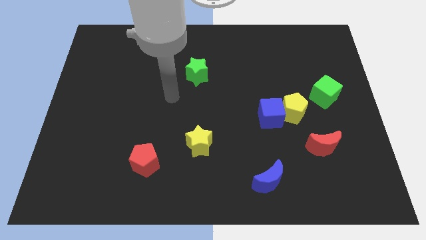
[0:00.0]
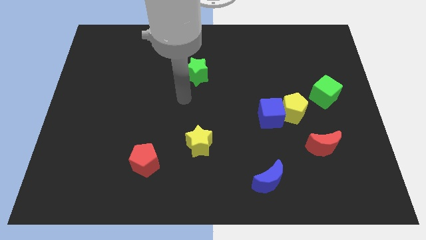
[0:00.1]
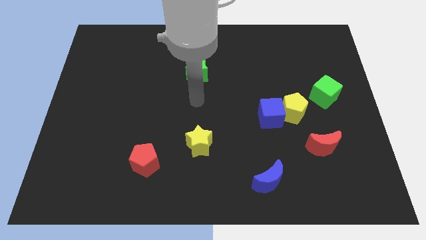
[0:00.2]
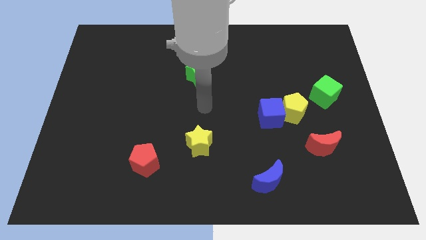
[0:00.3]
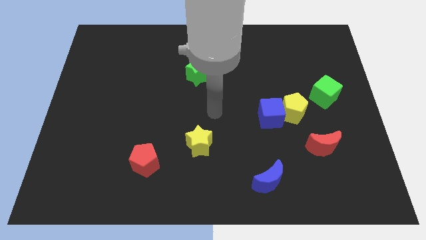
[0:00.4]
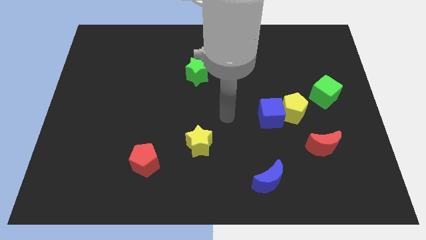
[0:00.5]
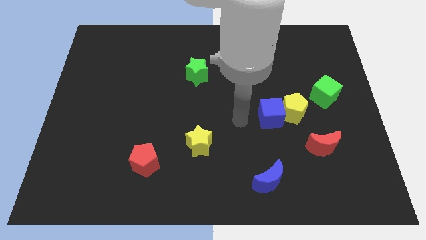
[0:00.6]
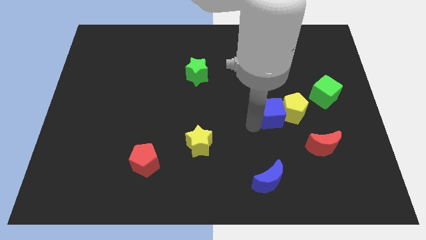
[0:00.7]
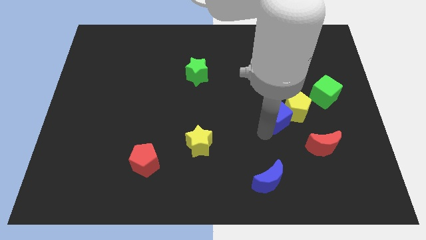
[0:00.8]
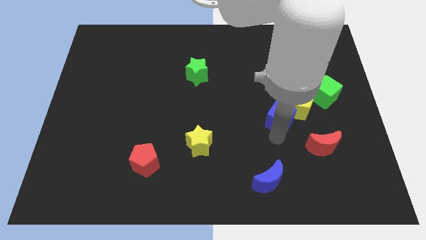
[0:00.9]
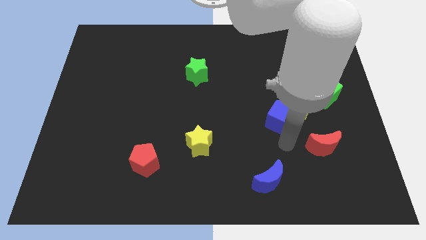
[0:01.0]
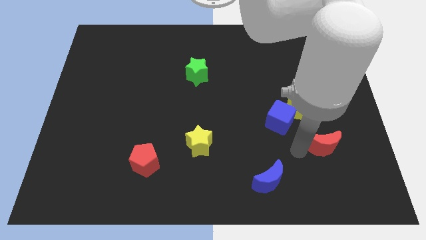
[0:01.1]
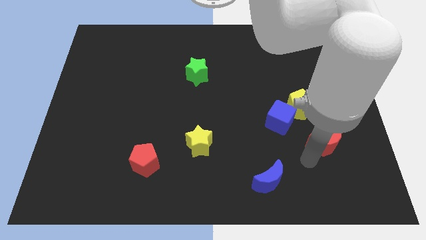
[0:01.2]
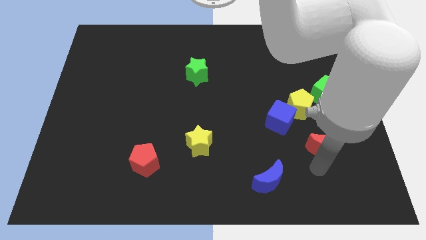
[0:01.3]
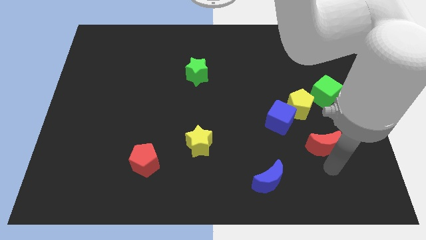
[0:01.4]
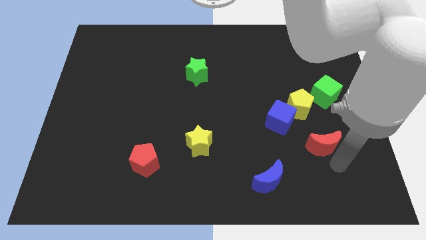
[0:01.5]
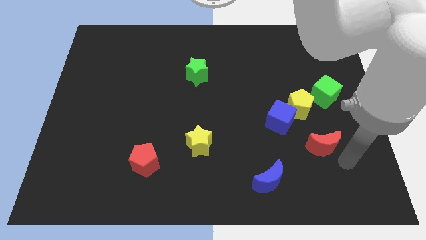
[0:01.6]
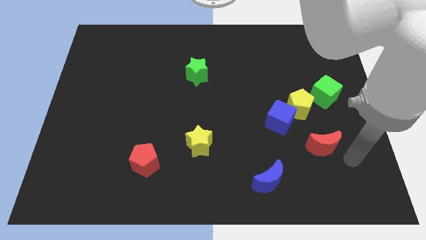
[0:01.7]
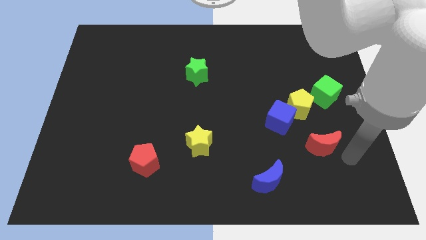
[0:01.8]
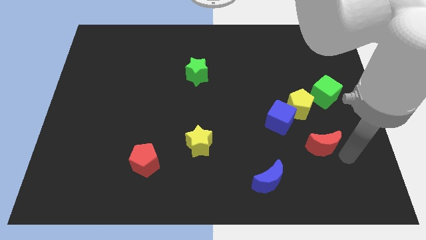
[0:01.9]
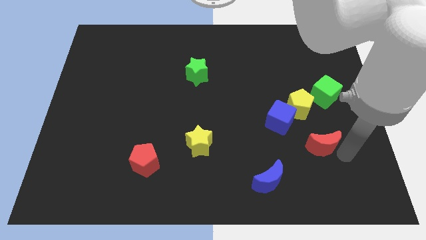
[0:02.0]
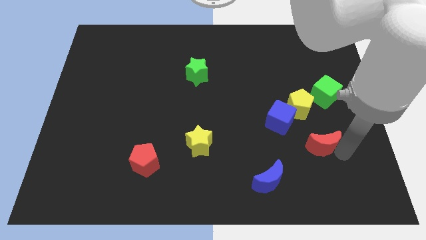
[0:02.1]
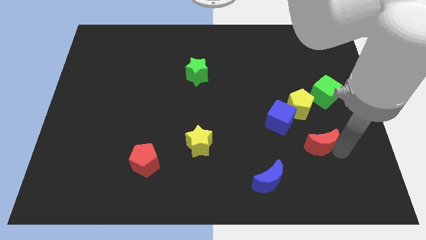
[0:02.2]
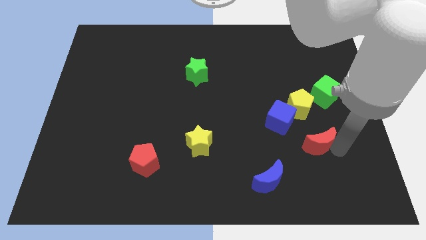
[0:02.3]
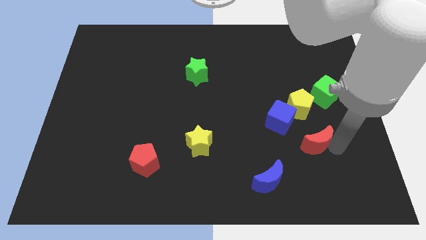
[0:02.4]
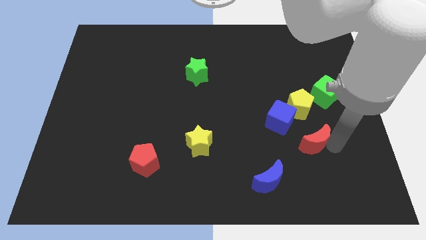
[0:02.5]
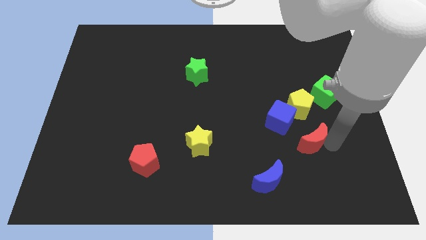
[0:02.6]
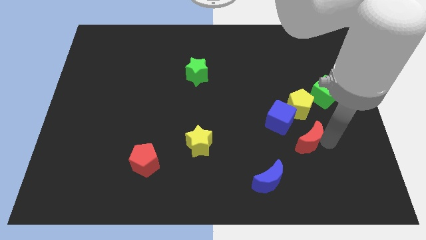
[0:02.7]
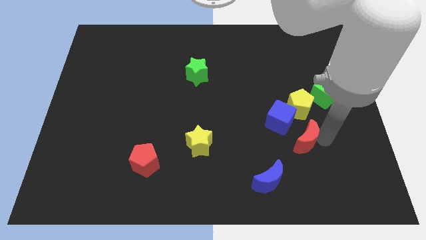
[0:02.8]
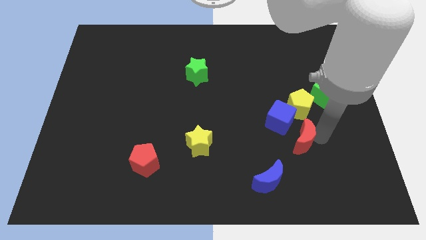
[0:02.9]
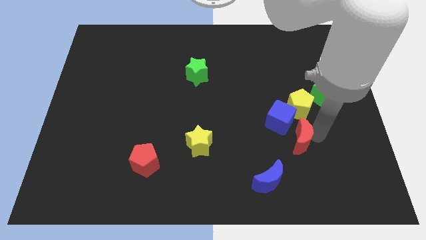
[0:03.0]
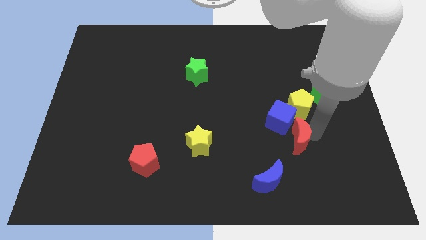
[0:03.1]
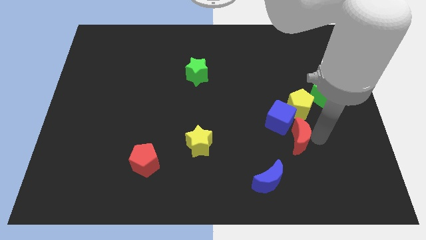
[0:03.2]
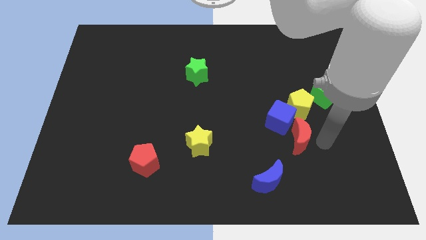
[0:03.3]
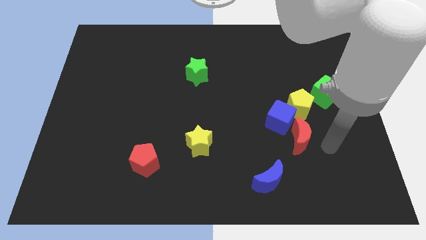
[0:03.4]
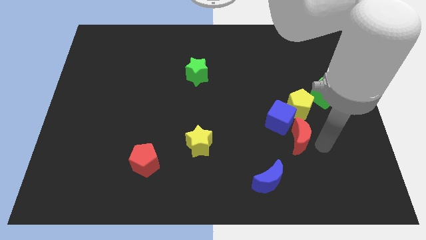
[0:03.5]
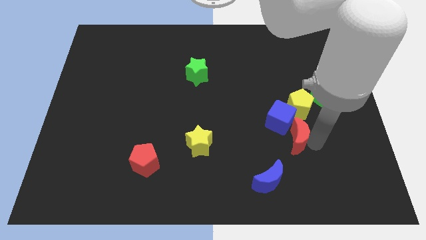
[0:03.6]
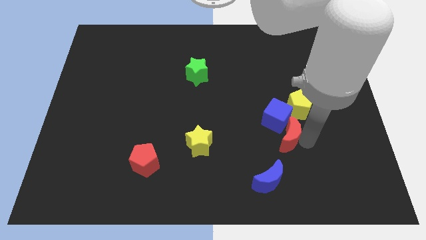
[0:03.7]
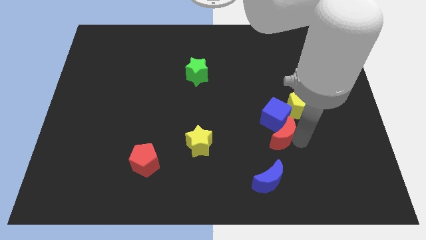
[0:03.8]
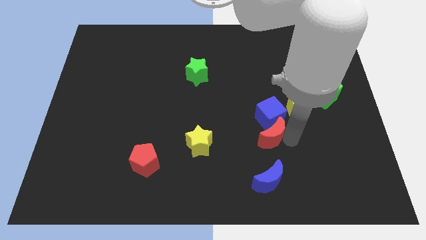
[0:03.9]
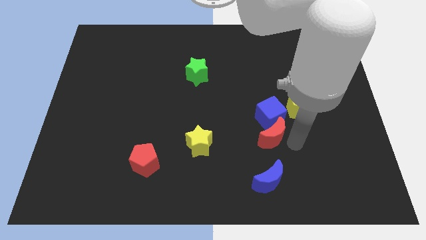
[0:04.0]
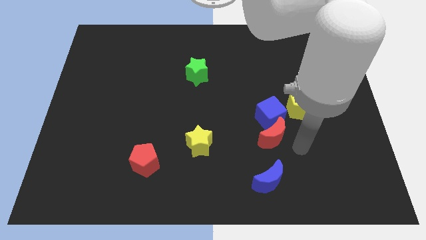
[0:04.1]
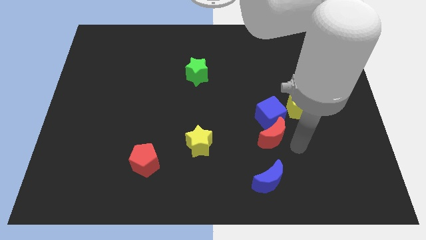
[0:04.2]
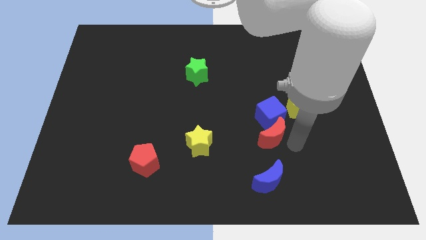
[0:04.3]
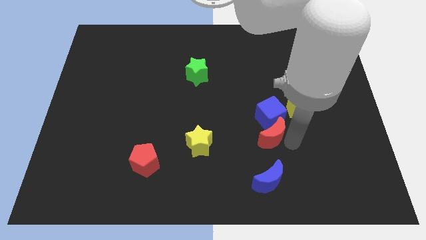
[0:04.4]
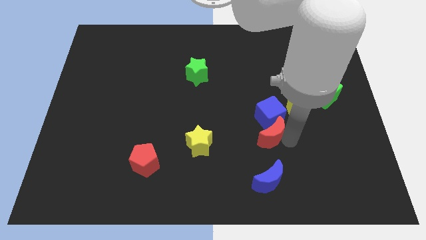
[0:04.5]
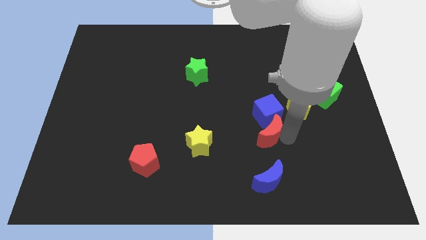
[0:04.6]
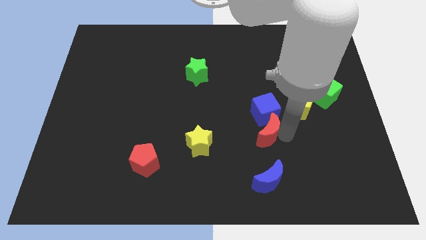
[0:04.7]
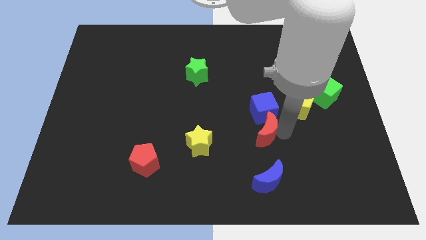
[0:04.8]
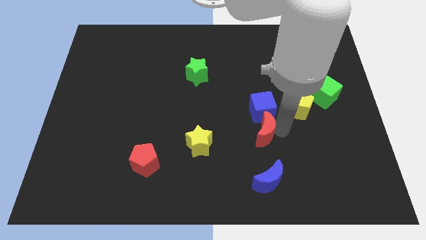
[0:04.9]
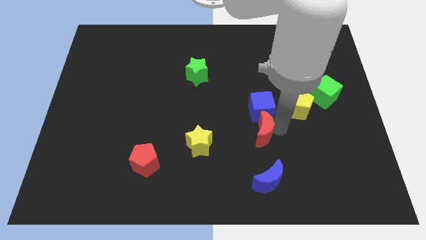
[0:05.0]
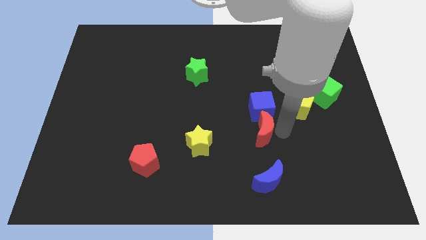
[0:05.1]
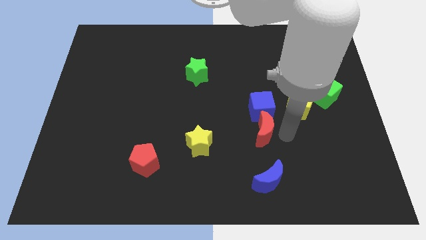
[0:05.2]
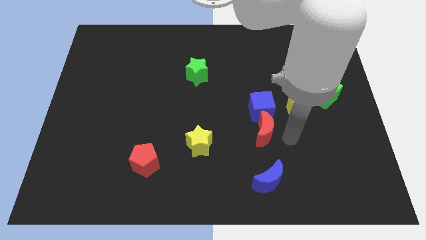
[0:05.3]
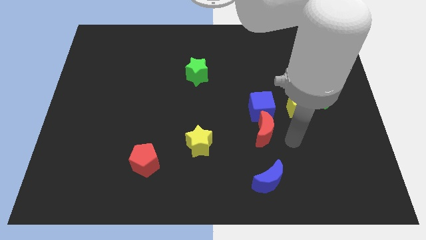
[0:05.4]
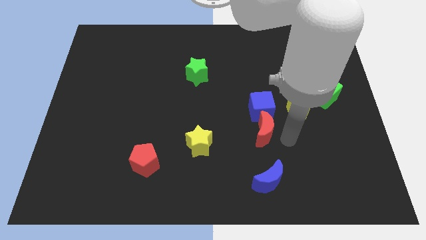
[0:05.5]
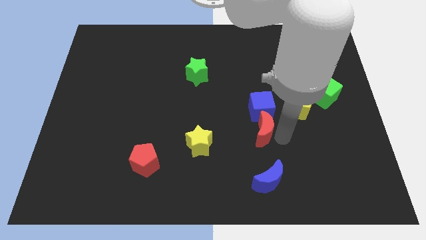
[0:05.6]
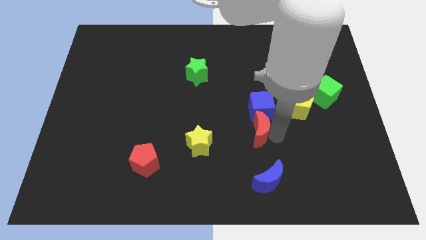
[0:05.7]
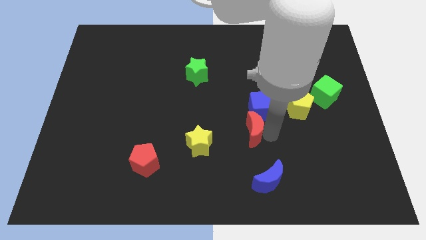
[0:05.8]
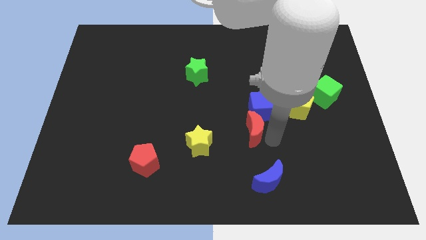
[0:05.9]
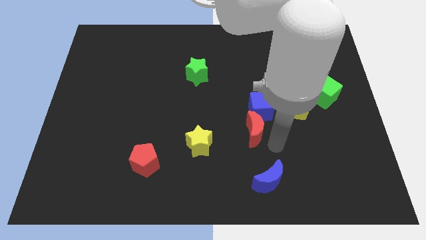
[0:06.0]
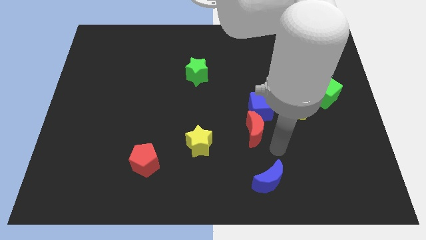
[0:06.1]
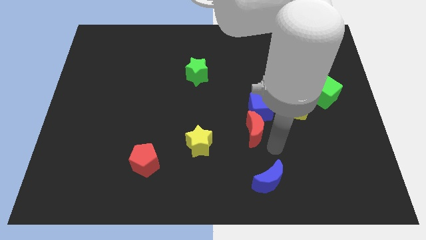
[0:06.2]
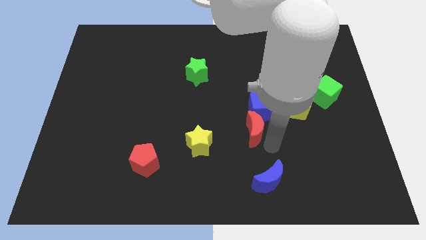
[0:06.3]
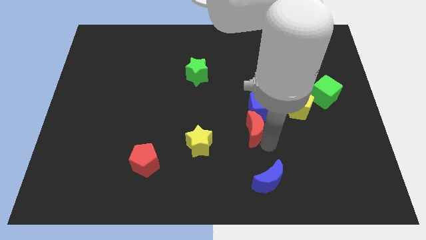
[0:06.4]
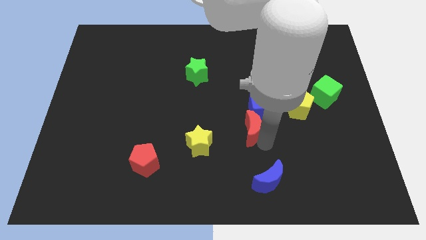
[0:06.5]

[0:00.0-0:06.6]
slide the red moon to the middle of the board
